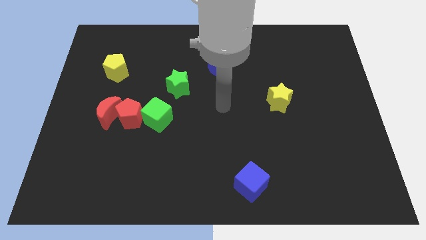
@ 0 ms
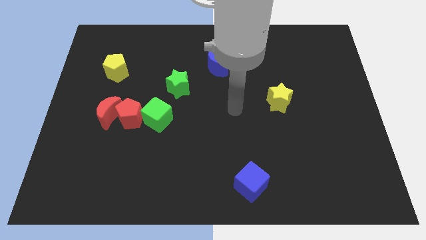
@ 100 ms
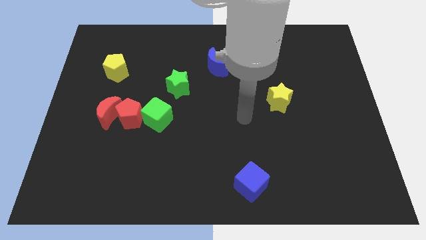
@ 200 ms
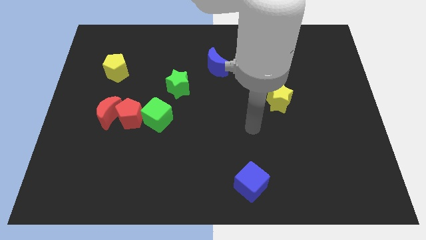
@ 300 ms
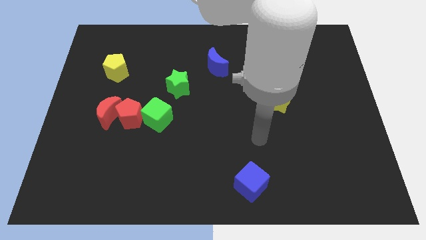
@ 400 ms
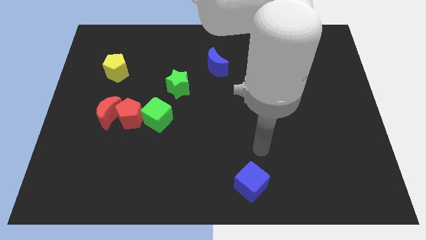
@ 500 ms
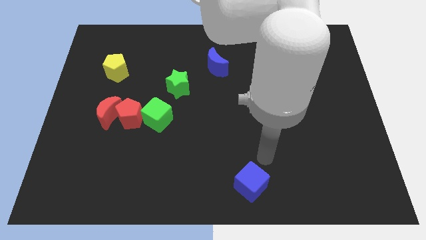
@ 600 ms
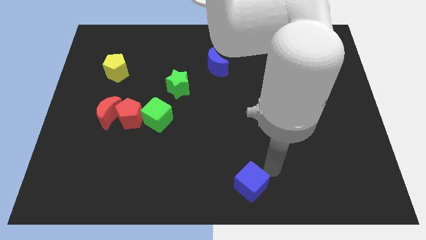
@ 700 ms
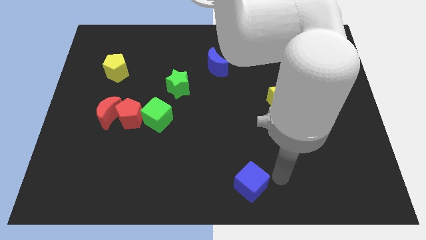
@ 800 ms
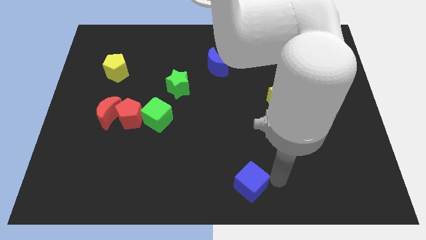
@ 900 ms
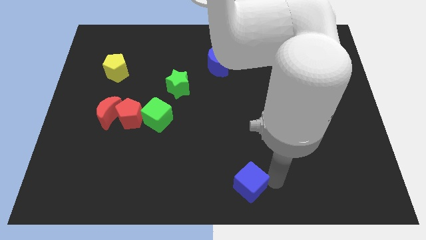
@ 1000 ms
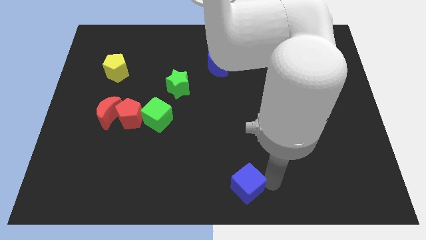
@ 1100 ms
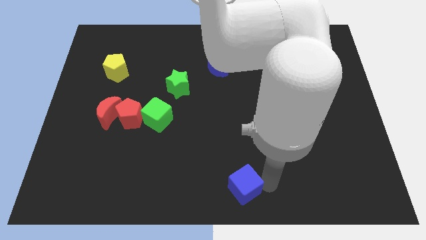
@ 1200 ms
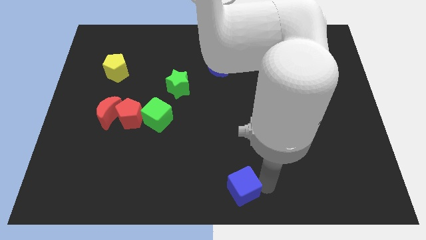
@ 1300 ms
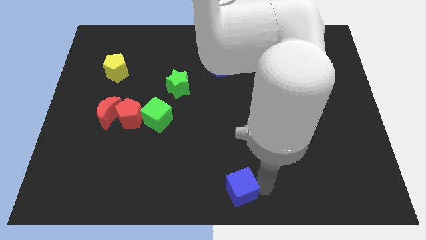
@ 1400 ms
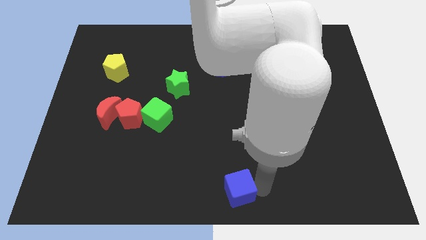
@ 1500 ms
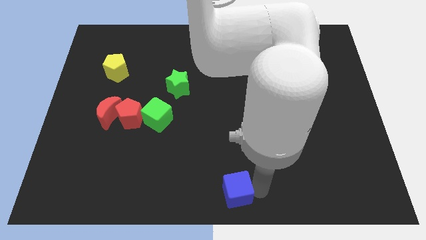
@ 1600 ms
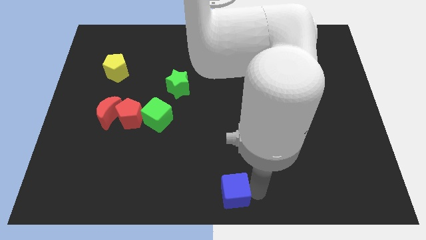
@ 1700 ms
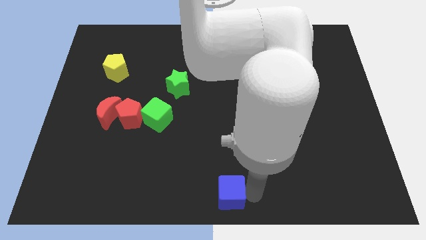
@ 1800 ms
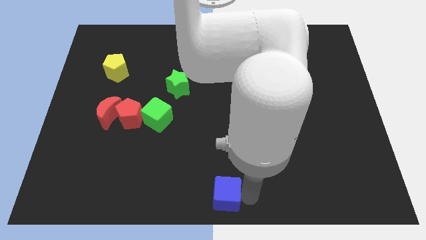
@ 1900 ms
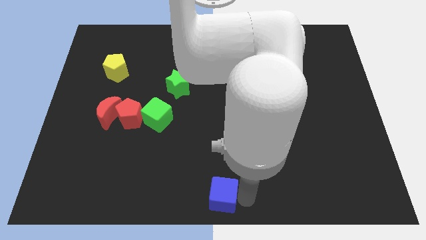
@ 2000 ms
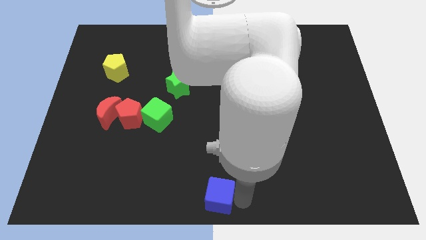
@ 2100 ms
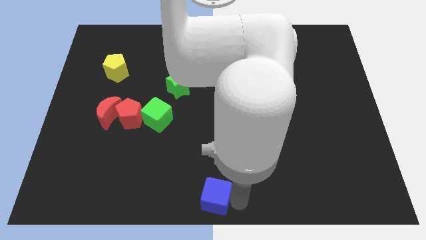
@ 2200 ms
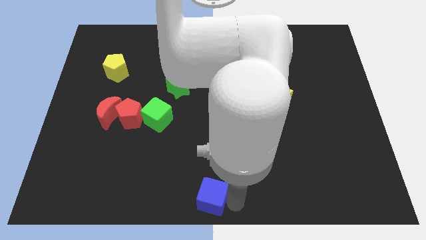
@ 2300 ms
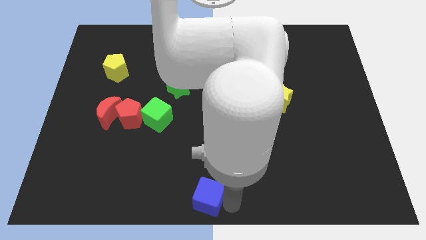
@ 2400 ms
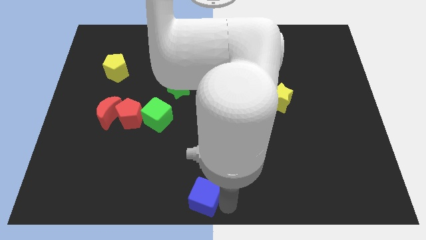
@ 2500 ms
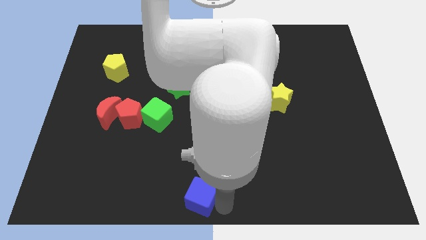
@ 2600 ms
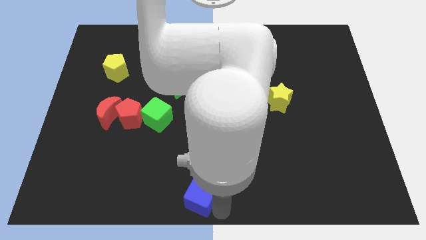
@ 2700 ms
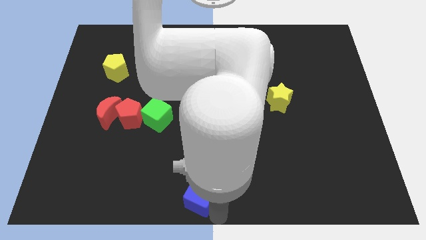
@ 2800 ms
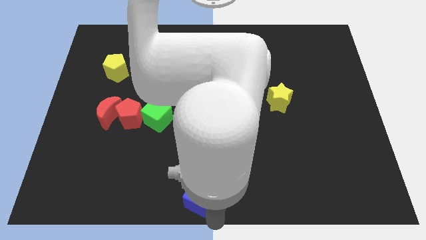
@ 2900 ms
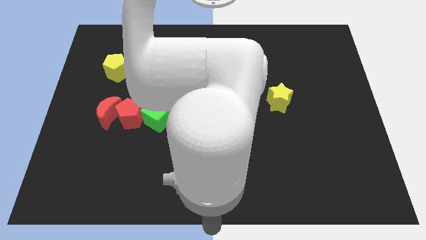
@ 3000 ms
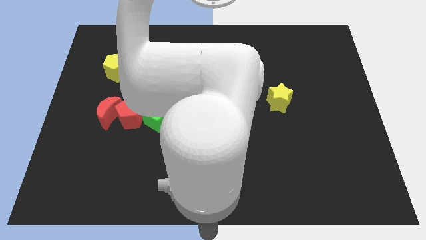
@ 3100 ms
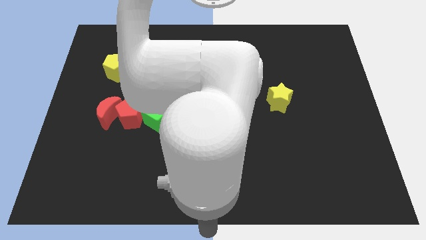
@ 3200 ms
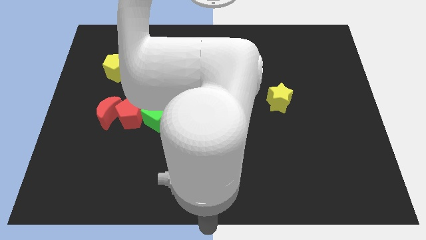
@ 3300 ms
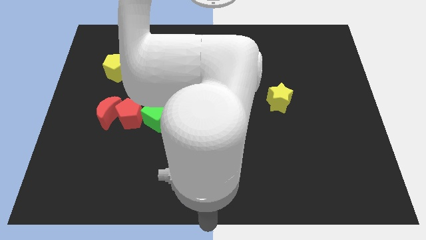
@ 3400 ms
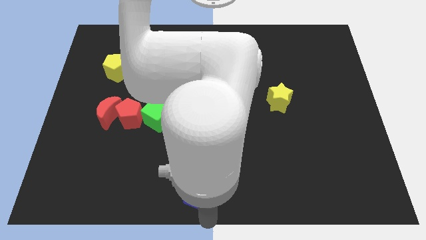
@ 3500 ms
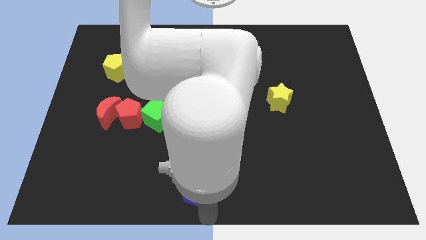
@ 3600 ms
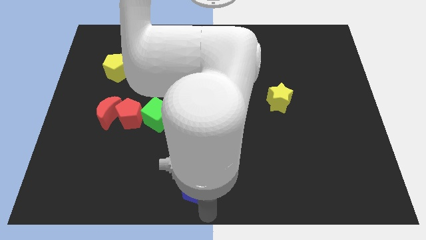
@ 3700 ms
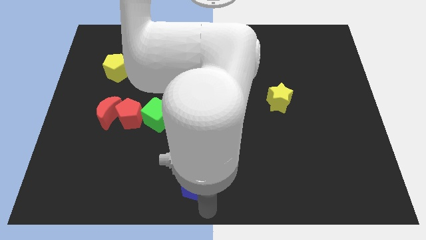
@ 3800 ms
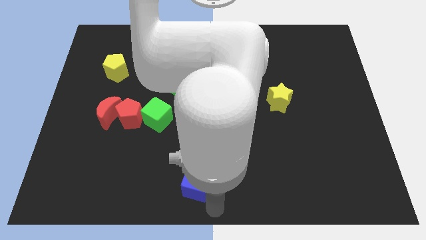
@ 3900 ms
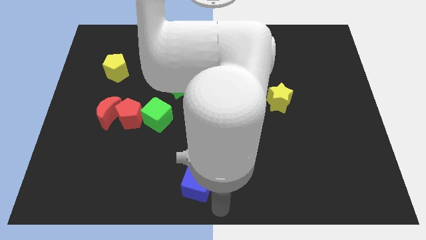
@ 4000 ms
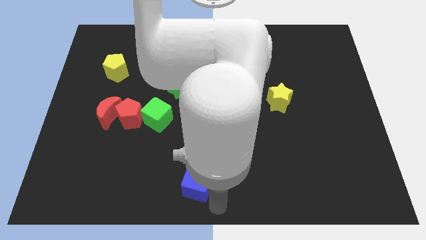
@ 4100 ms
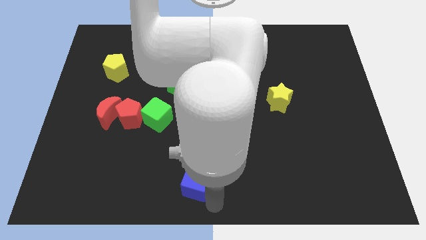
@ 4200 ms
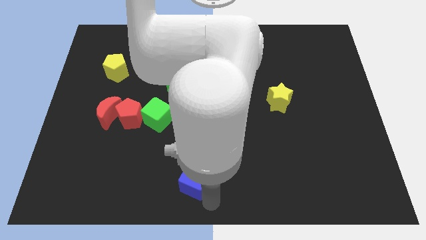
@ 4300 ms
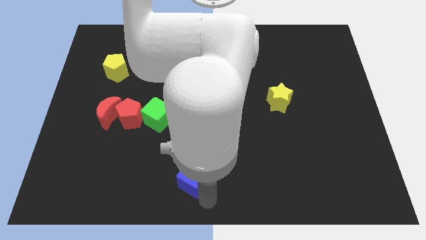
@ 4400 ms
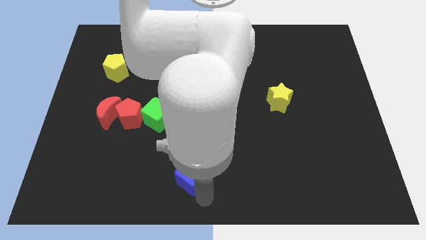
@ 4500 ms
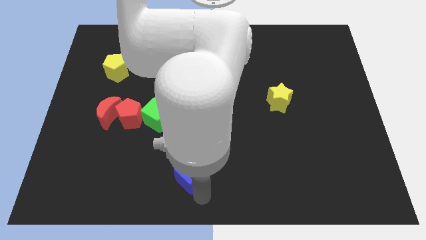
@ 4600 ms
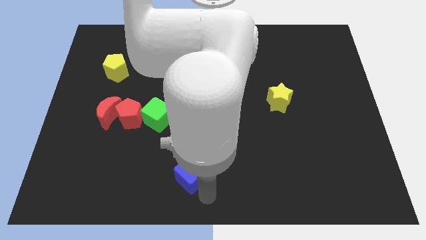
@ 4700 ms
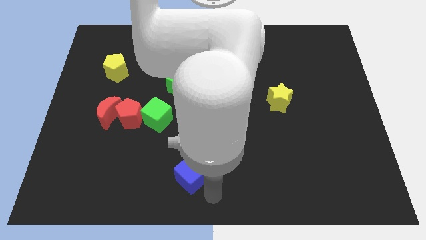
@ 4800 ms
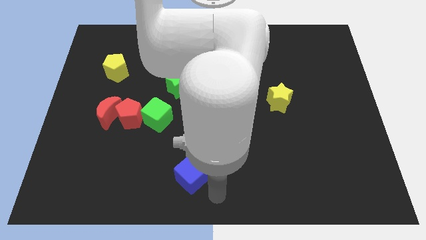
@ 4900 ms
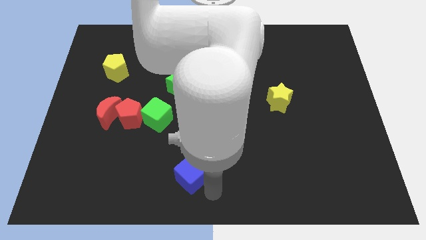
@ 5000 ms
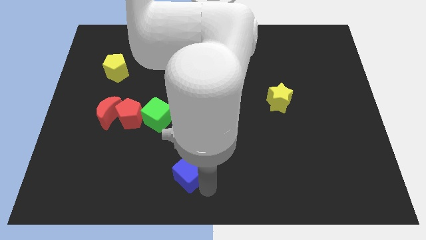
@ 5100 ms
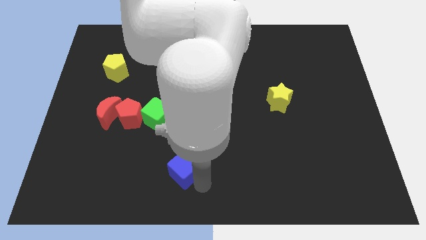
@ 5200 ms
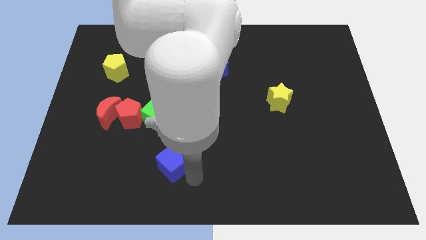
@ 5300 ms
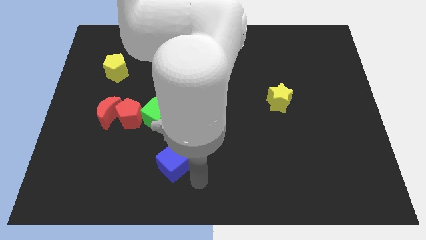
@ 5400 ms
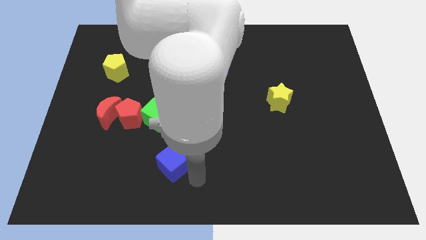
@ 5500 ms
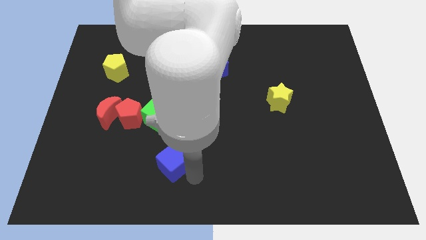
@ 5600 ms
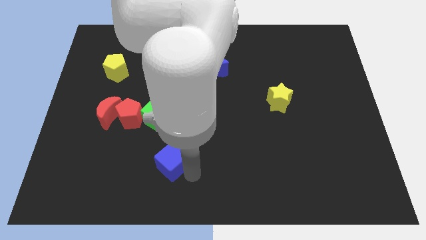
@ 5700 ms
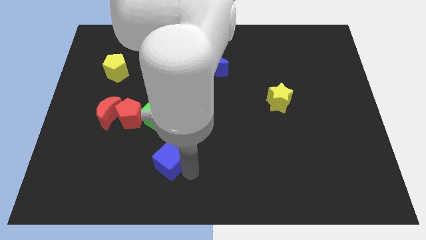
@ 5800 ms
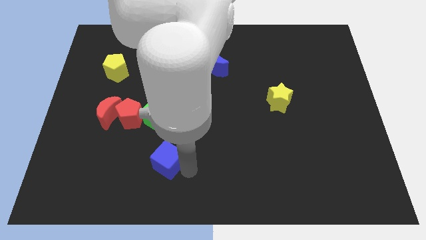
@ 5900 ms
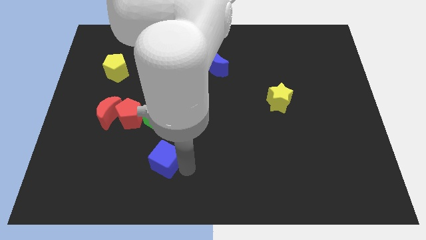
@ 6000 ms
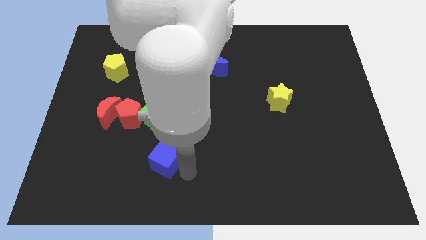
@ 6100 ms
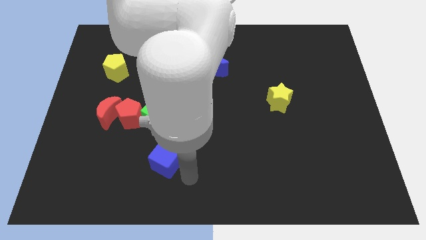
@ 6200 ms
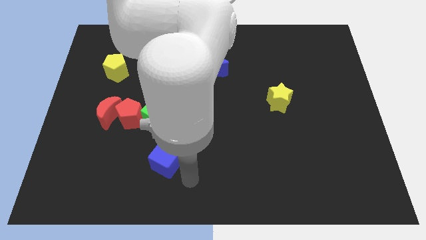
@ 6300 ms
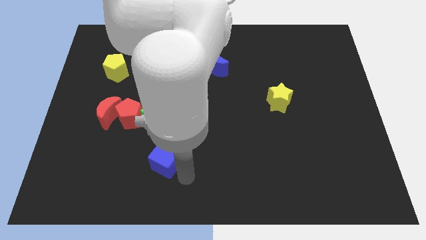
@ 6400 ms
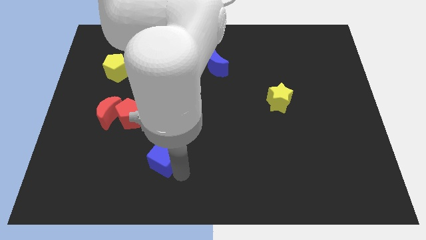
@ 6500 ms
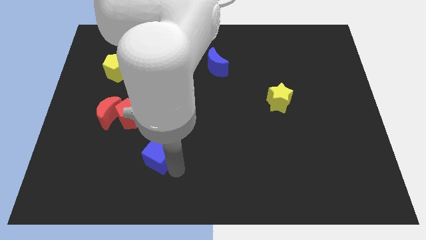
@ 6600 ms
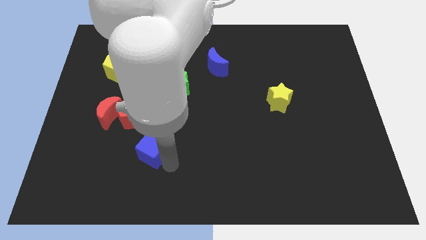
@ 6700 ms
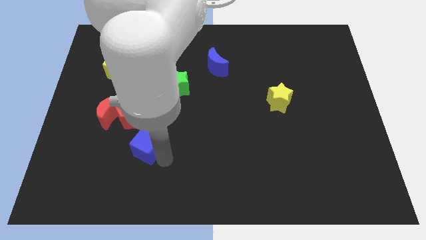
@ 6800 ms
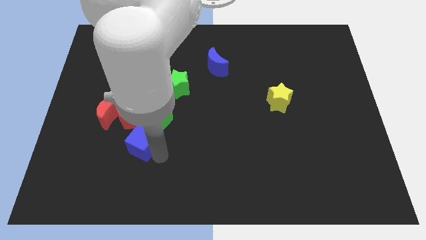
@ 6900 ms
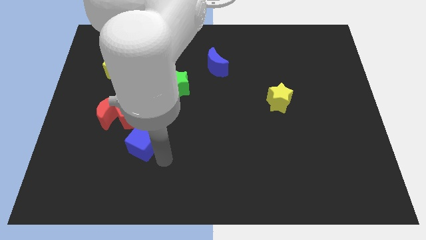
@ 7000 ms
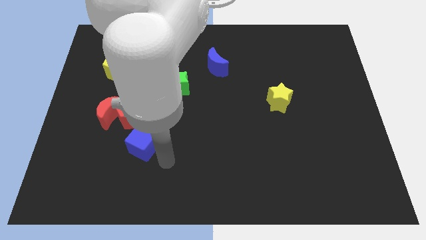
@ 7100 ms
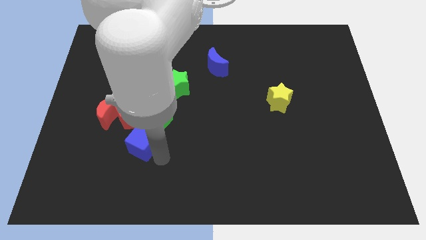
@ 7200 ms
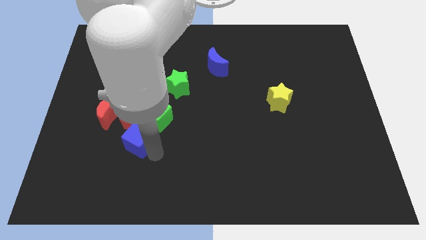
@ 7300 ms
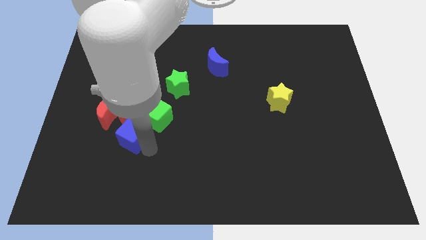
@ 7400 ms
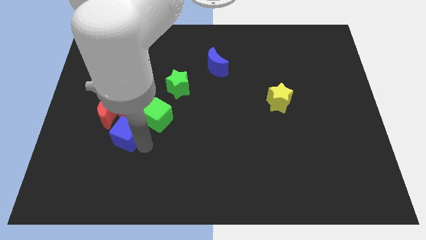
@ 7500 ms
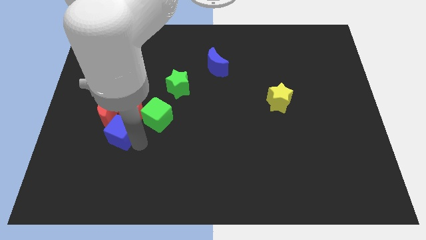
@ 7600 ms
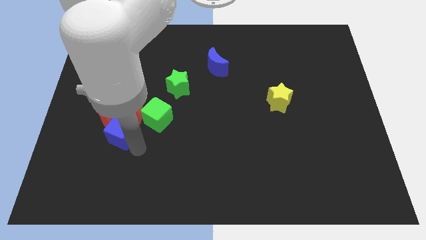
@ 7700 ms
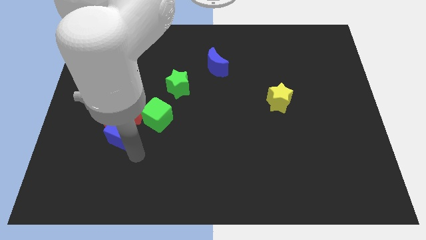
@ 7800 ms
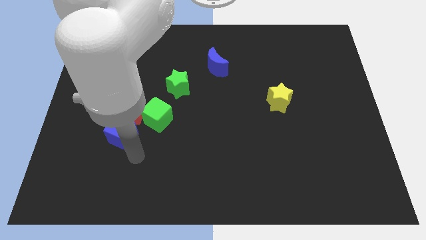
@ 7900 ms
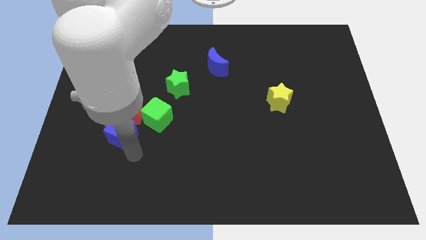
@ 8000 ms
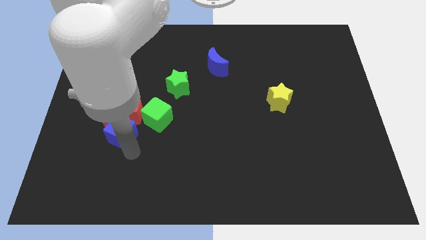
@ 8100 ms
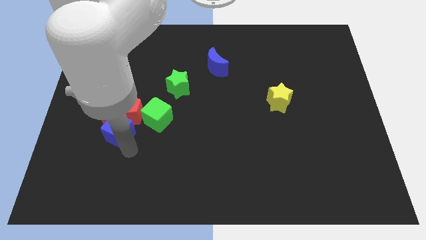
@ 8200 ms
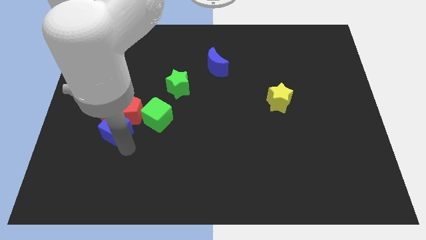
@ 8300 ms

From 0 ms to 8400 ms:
put the blue cube next to the red moon
